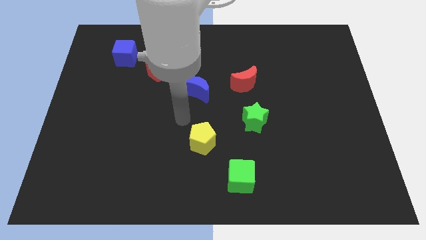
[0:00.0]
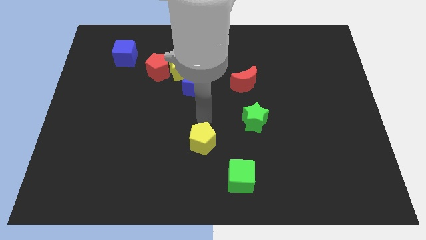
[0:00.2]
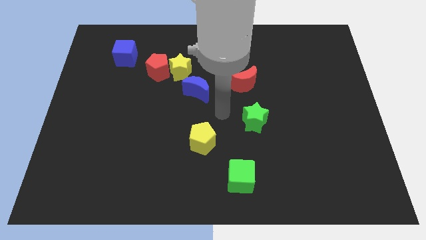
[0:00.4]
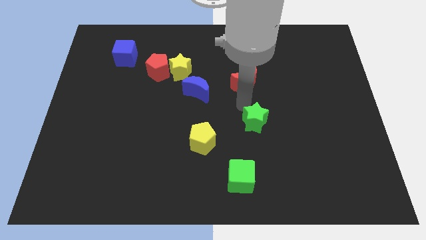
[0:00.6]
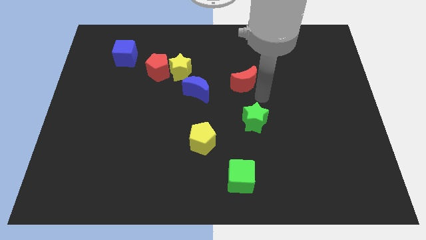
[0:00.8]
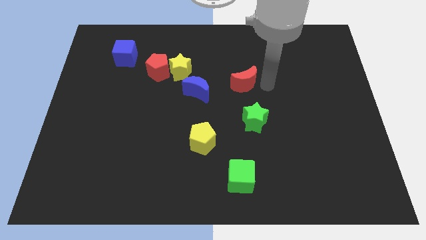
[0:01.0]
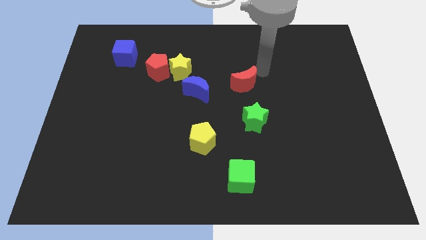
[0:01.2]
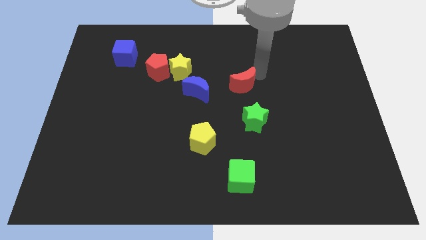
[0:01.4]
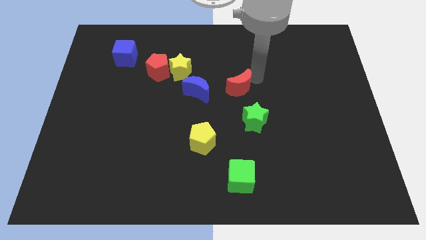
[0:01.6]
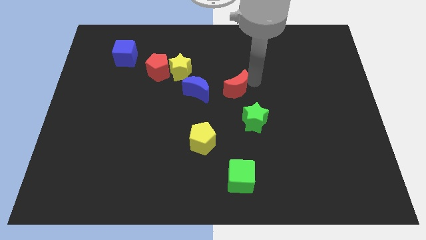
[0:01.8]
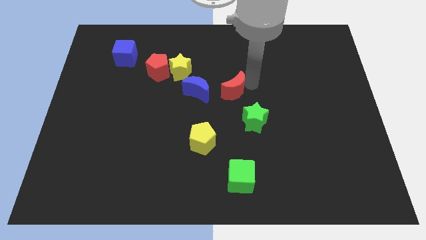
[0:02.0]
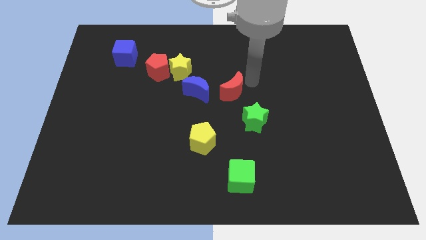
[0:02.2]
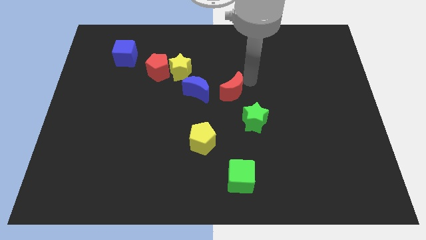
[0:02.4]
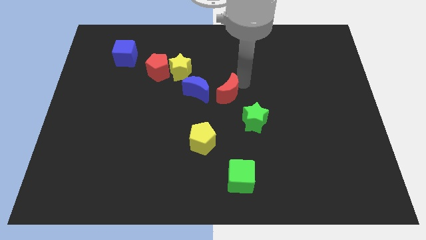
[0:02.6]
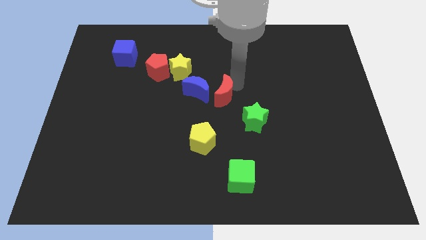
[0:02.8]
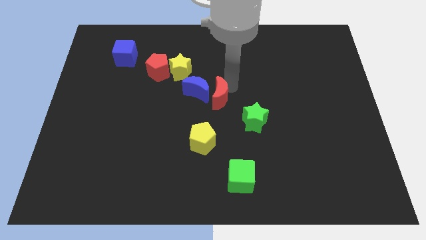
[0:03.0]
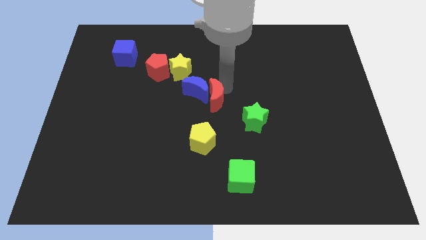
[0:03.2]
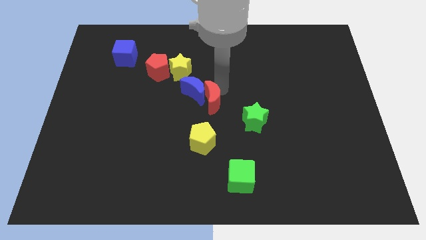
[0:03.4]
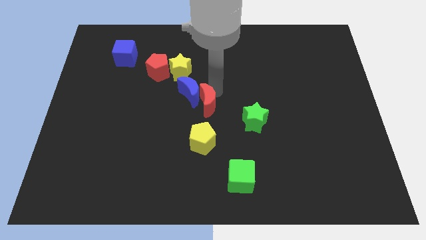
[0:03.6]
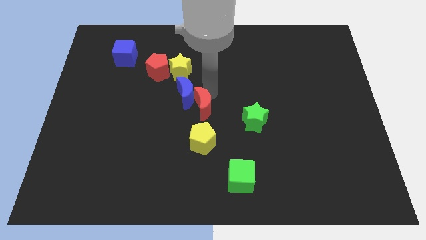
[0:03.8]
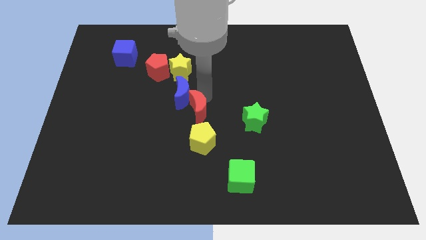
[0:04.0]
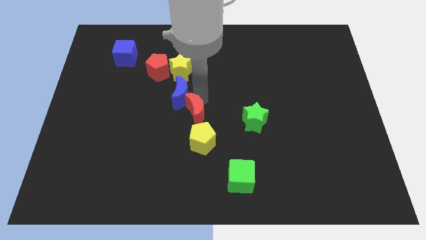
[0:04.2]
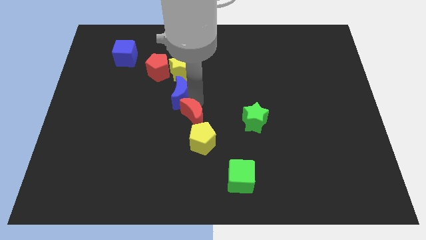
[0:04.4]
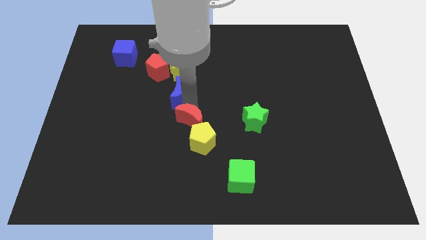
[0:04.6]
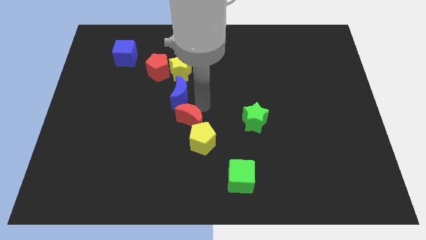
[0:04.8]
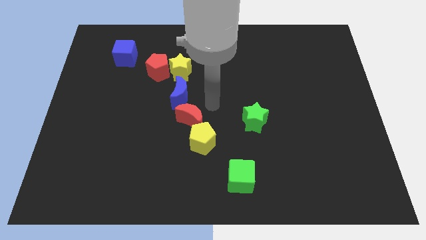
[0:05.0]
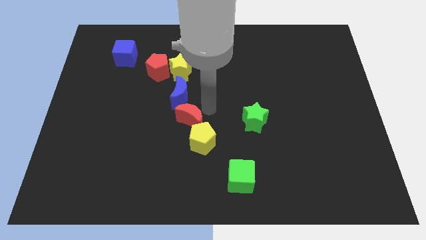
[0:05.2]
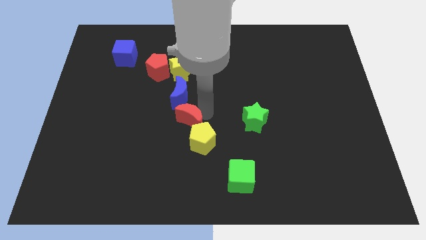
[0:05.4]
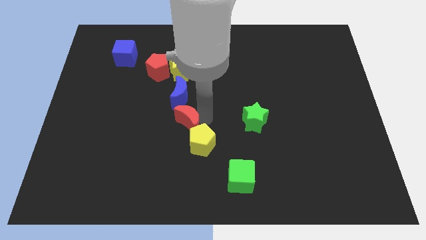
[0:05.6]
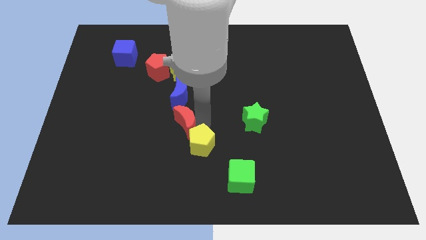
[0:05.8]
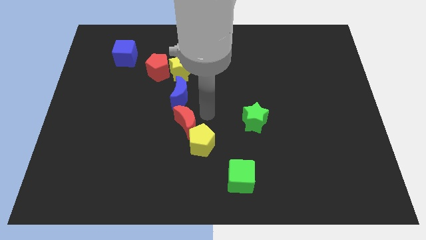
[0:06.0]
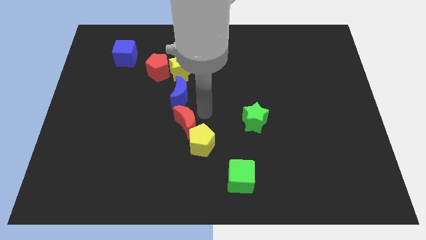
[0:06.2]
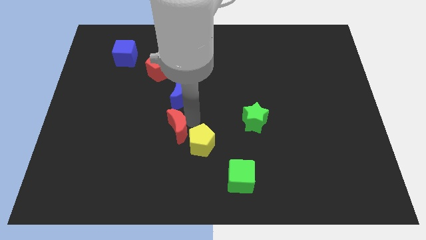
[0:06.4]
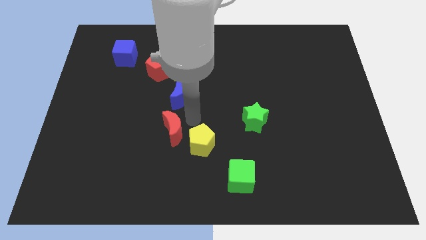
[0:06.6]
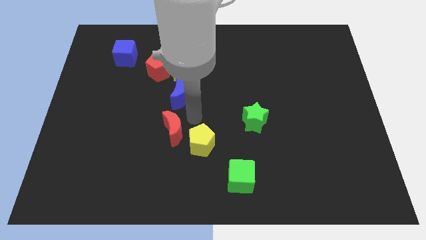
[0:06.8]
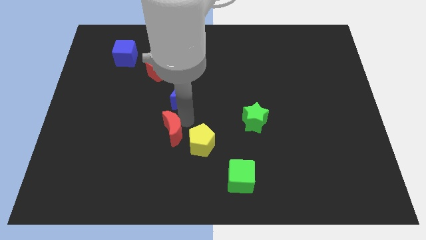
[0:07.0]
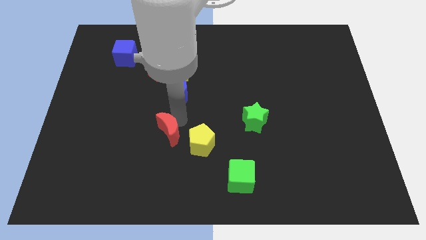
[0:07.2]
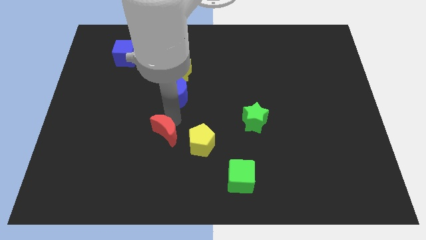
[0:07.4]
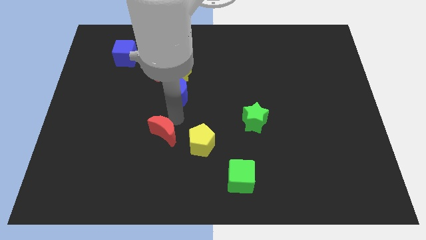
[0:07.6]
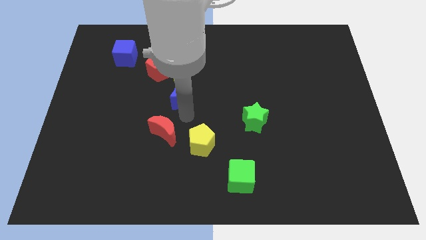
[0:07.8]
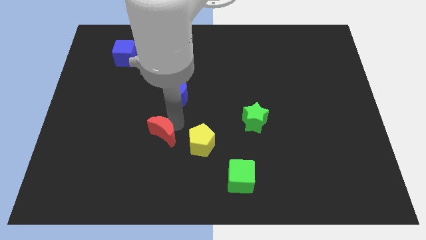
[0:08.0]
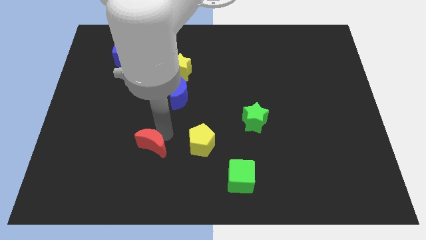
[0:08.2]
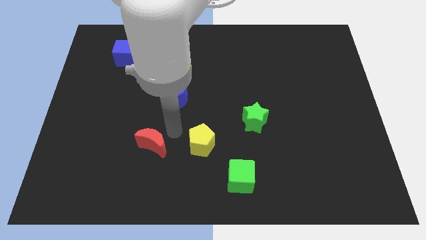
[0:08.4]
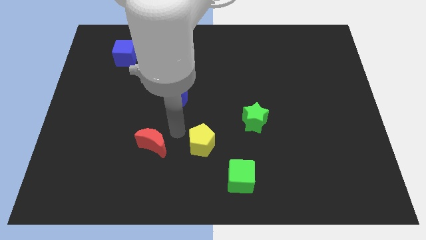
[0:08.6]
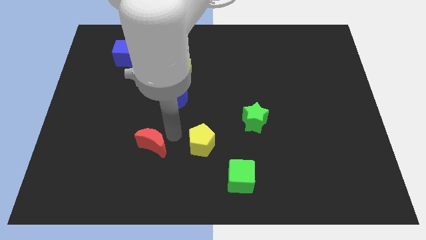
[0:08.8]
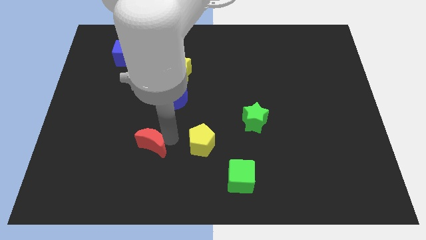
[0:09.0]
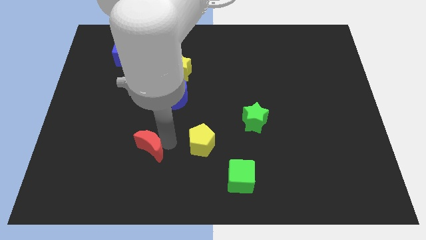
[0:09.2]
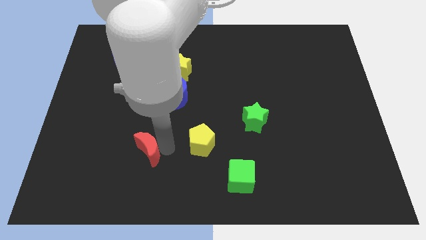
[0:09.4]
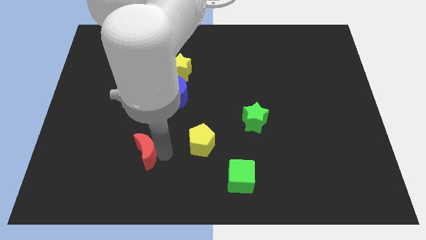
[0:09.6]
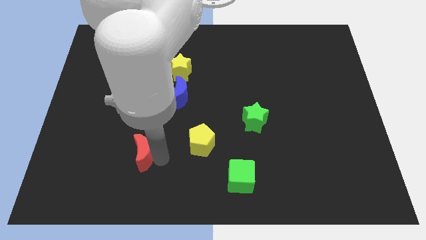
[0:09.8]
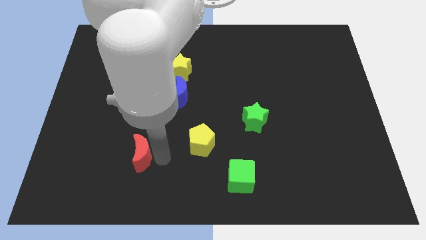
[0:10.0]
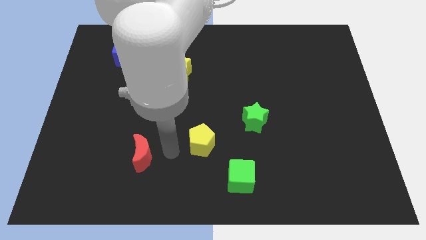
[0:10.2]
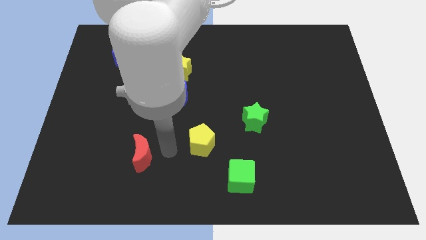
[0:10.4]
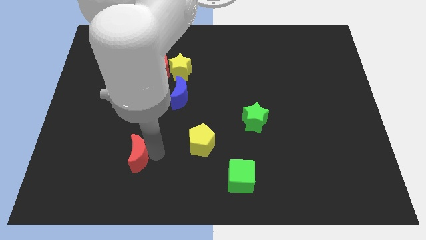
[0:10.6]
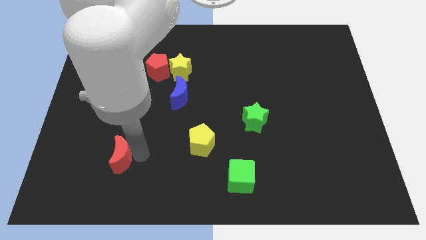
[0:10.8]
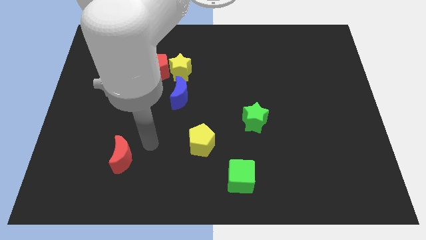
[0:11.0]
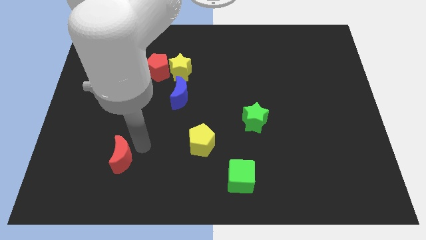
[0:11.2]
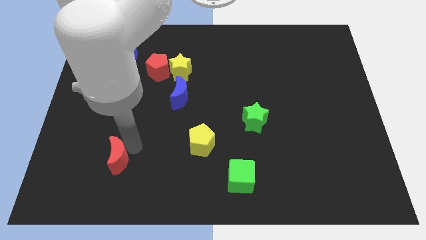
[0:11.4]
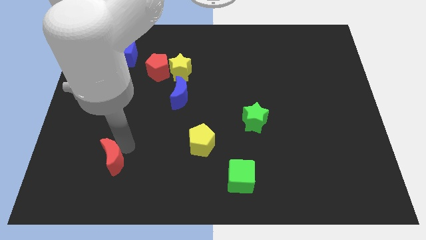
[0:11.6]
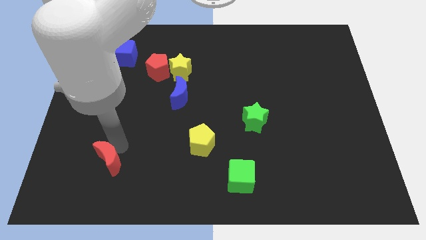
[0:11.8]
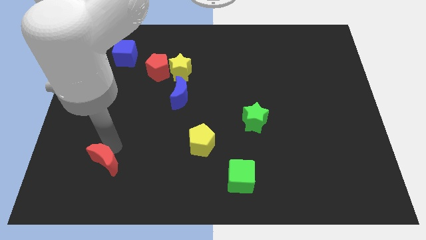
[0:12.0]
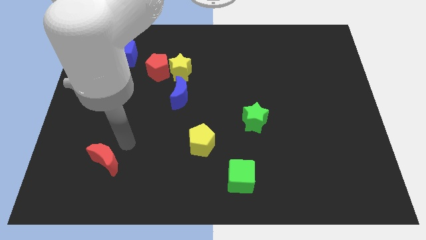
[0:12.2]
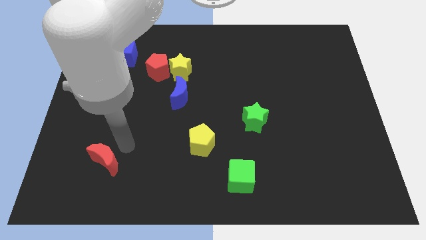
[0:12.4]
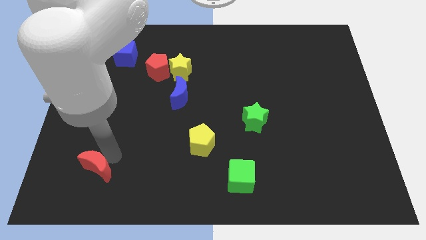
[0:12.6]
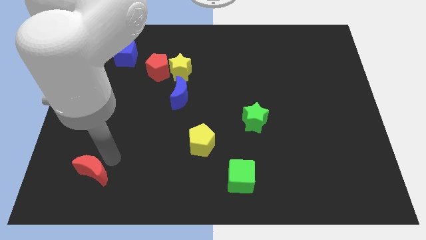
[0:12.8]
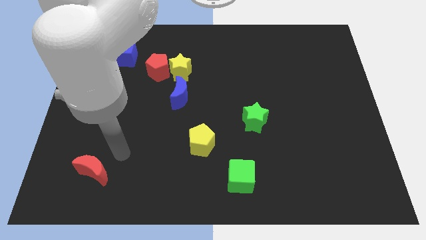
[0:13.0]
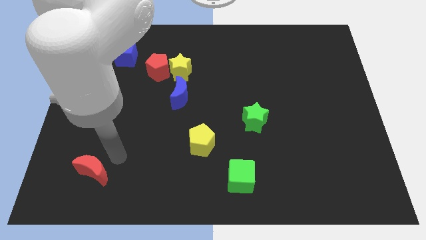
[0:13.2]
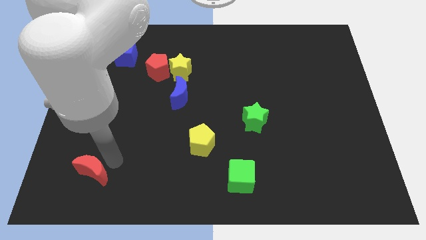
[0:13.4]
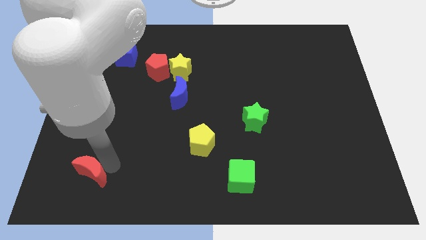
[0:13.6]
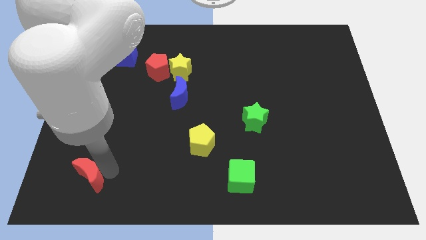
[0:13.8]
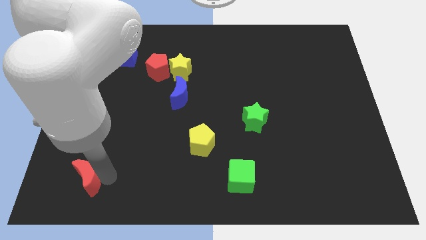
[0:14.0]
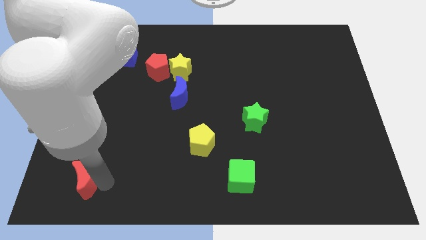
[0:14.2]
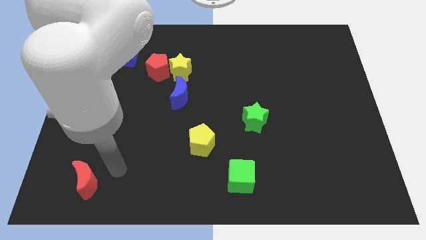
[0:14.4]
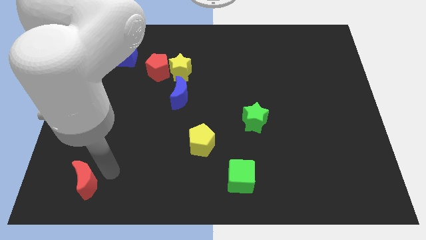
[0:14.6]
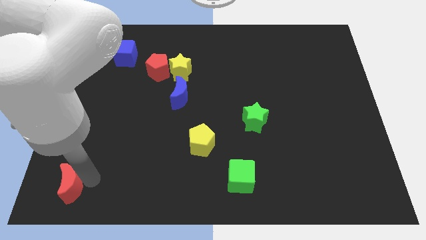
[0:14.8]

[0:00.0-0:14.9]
put the red moon to the bottom left corner
